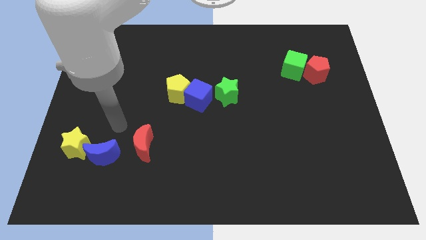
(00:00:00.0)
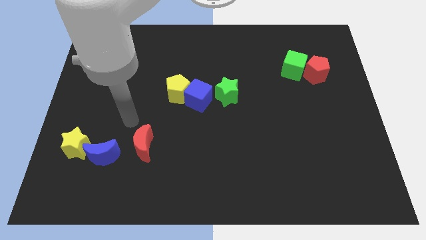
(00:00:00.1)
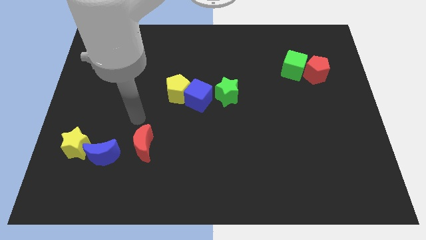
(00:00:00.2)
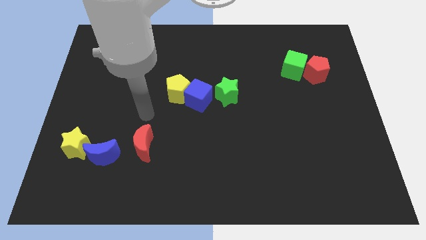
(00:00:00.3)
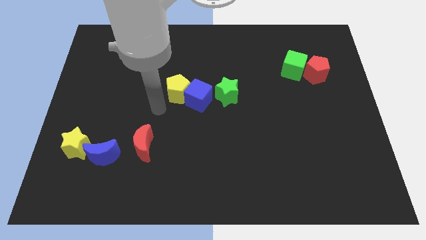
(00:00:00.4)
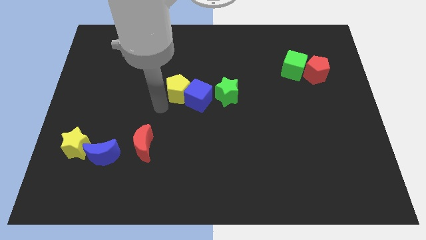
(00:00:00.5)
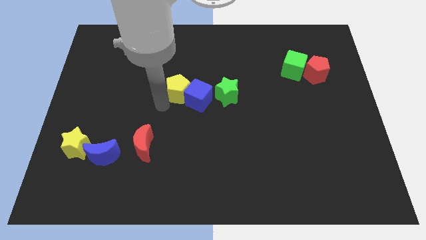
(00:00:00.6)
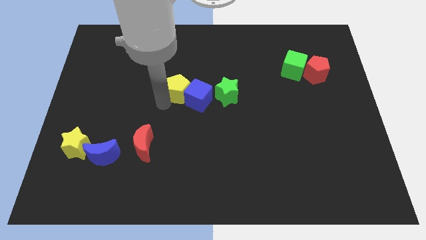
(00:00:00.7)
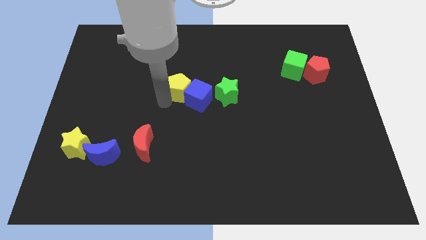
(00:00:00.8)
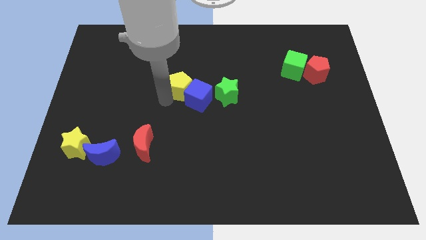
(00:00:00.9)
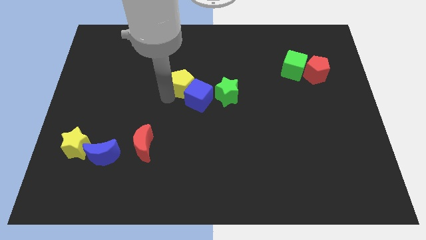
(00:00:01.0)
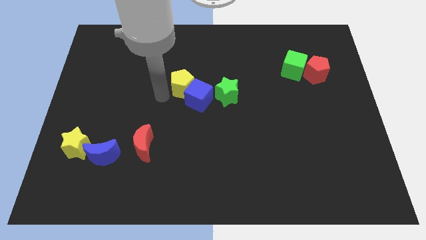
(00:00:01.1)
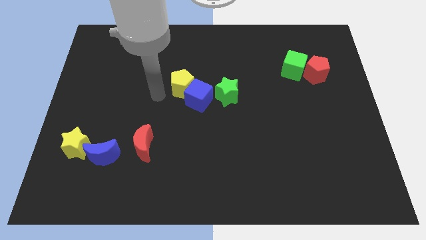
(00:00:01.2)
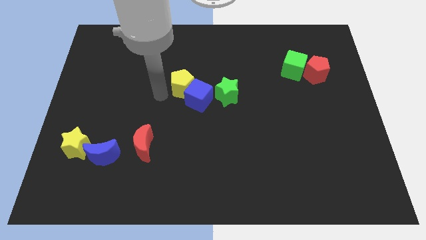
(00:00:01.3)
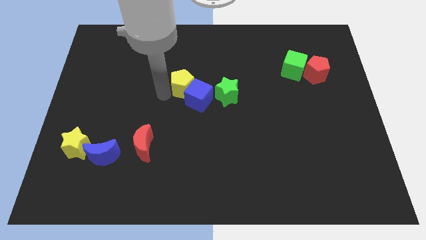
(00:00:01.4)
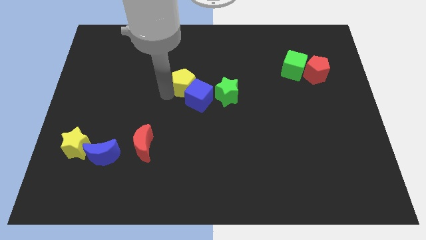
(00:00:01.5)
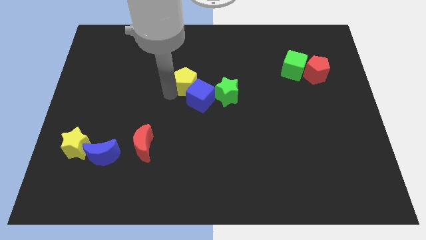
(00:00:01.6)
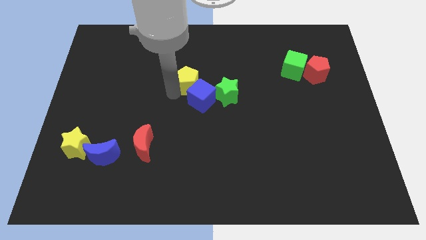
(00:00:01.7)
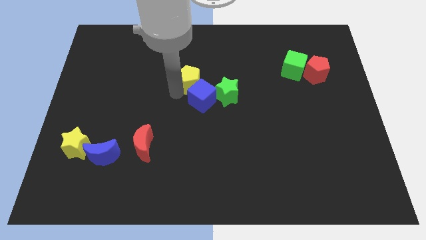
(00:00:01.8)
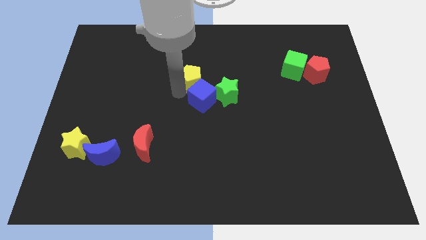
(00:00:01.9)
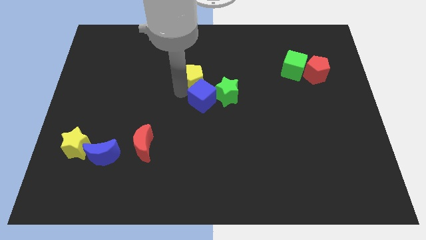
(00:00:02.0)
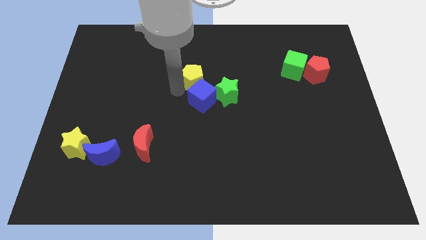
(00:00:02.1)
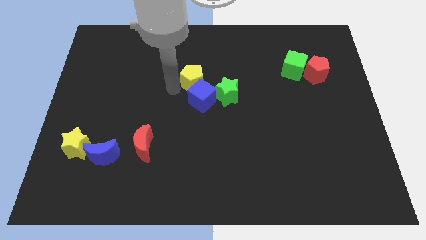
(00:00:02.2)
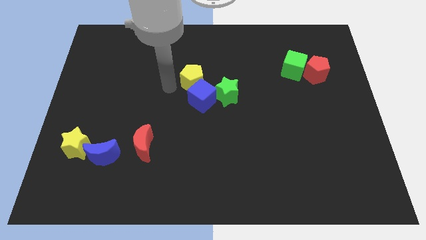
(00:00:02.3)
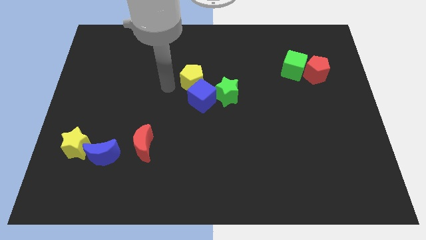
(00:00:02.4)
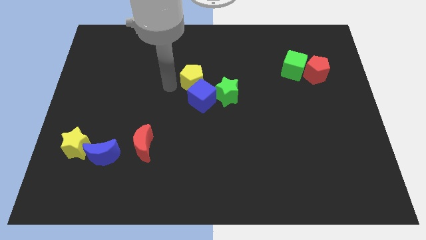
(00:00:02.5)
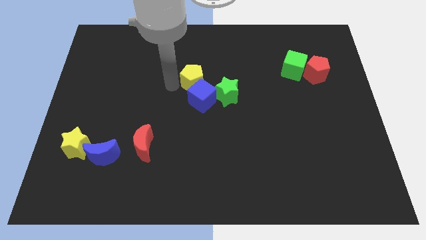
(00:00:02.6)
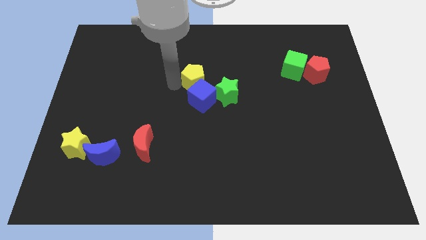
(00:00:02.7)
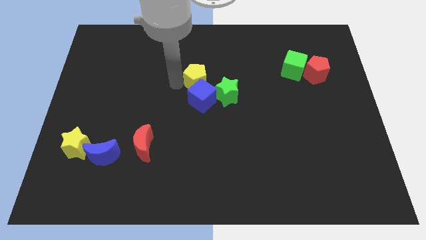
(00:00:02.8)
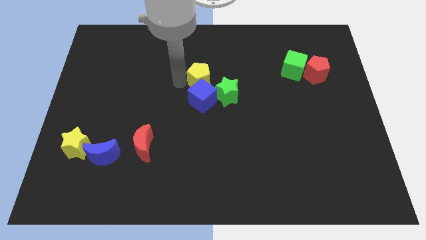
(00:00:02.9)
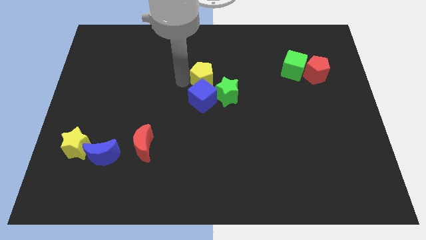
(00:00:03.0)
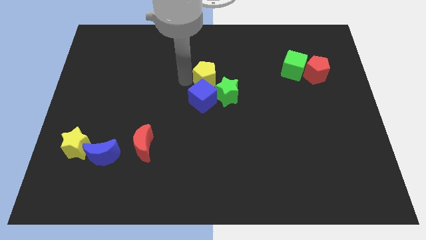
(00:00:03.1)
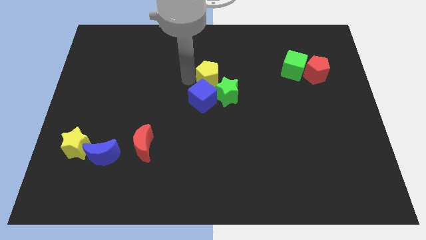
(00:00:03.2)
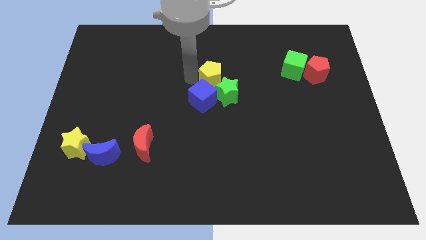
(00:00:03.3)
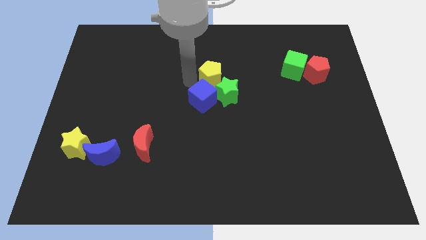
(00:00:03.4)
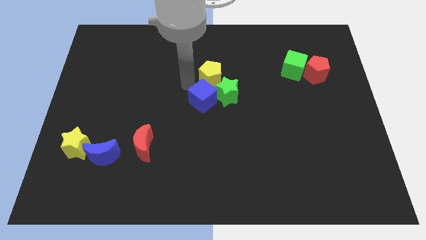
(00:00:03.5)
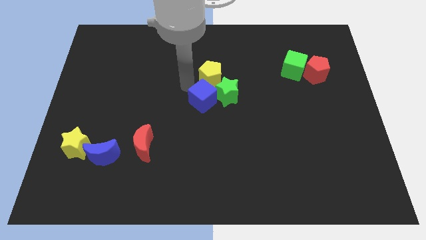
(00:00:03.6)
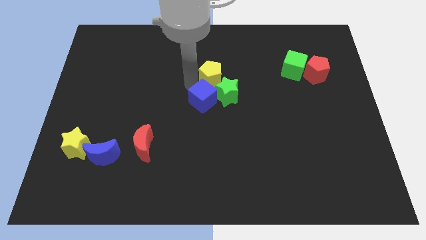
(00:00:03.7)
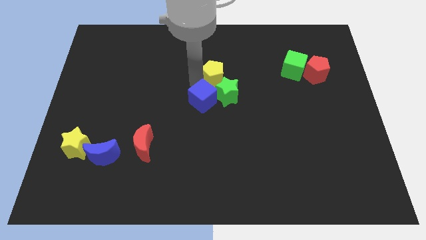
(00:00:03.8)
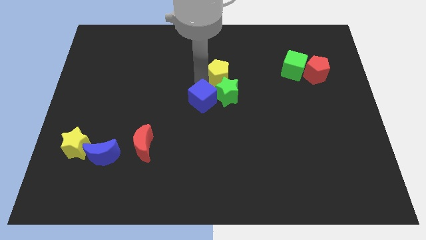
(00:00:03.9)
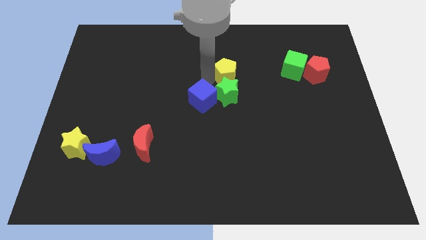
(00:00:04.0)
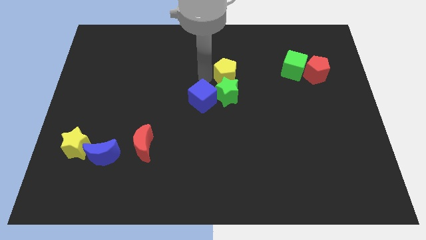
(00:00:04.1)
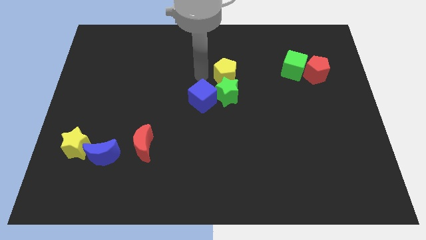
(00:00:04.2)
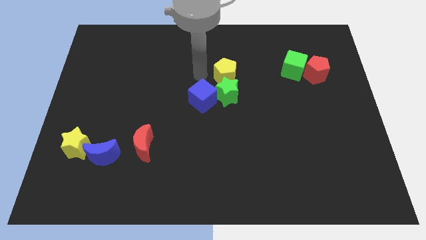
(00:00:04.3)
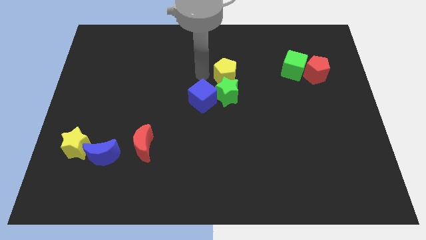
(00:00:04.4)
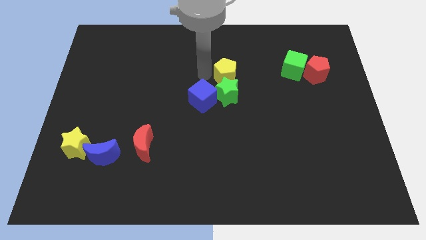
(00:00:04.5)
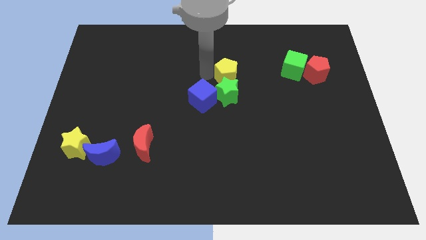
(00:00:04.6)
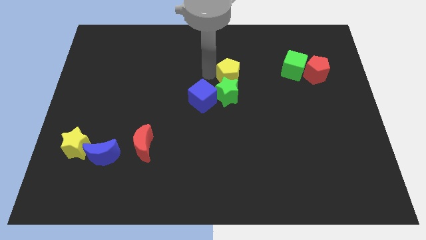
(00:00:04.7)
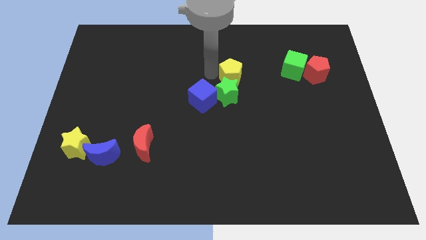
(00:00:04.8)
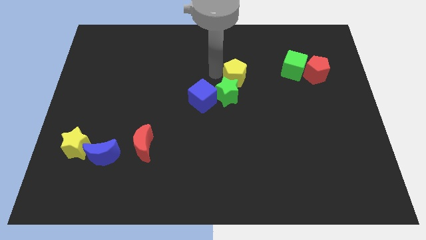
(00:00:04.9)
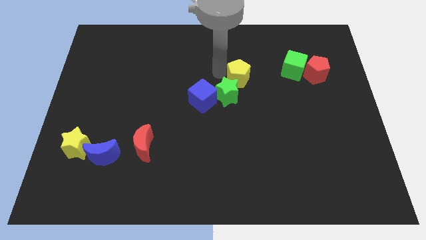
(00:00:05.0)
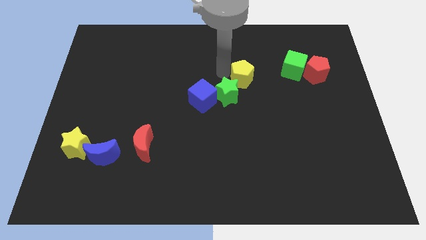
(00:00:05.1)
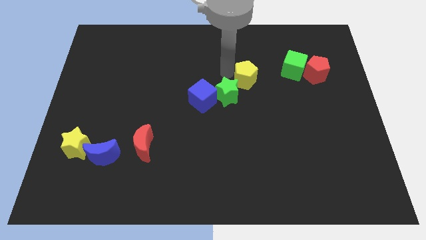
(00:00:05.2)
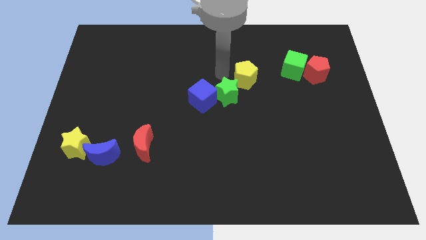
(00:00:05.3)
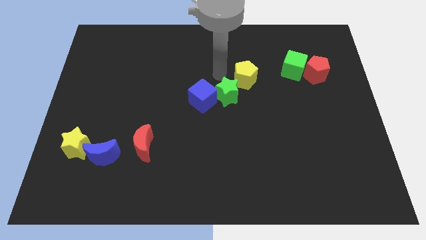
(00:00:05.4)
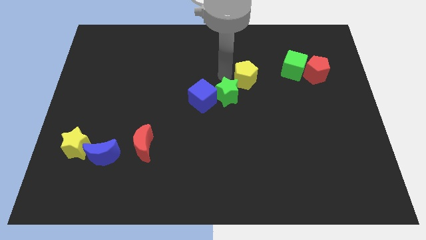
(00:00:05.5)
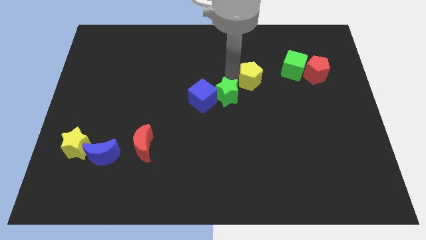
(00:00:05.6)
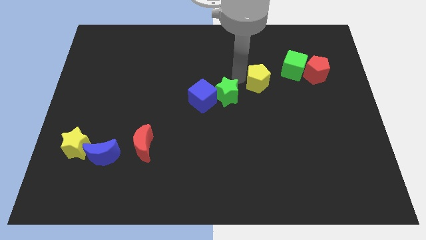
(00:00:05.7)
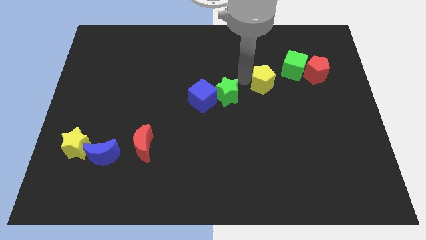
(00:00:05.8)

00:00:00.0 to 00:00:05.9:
move the yellow pentagon to the right

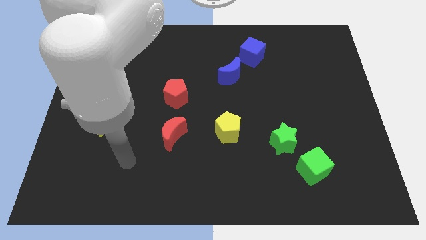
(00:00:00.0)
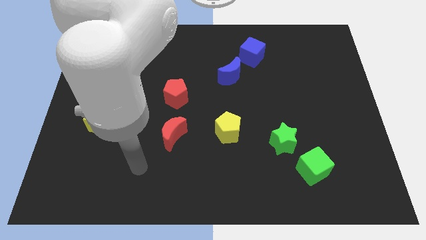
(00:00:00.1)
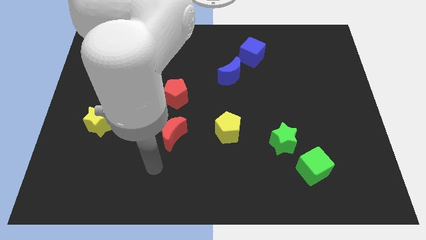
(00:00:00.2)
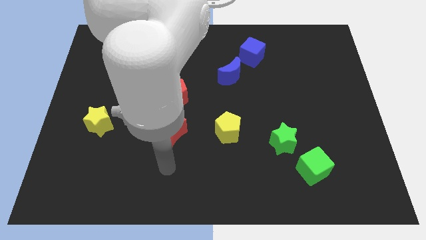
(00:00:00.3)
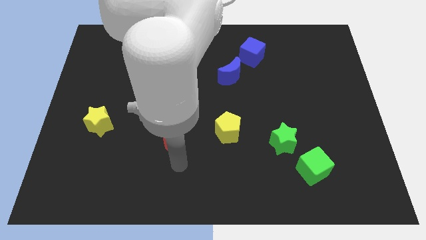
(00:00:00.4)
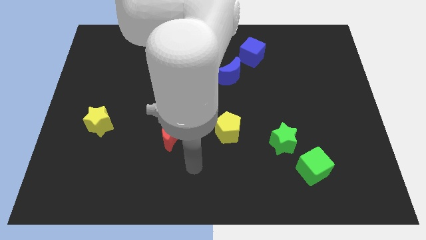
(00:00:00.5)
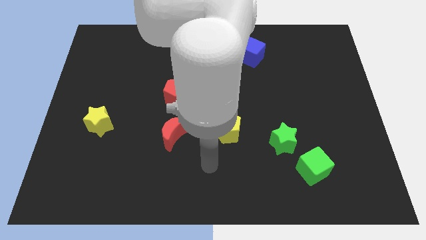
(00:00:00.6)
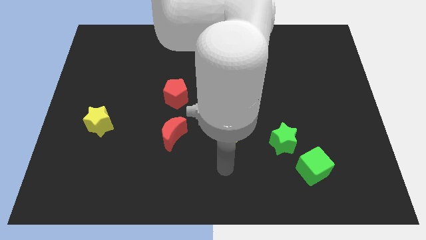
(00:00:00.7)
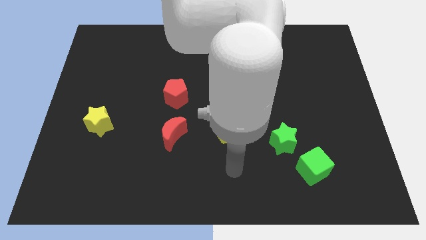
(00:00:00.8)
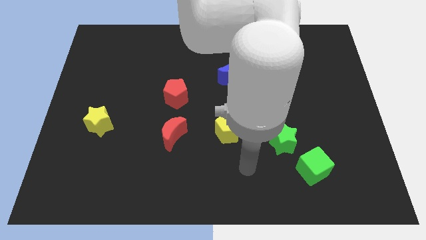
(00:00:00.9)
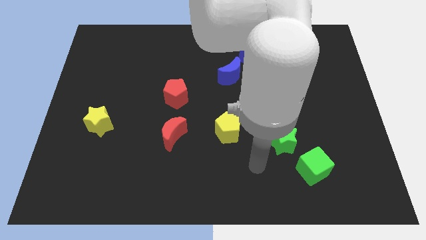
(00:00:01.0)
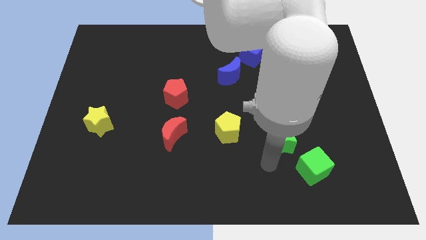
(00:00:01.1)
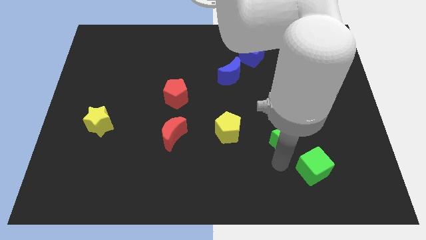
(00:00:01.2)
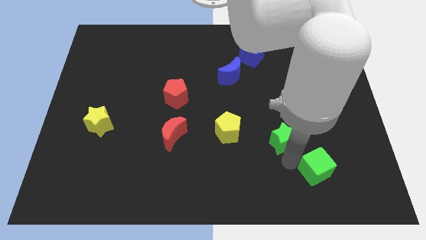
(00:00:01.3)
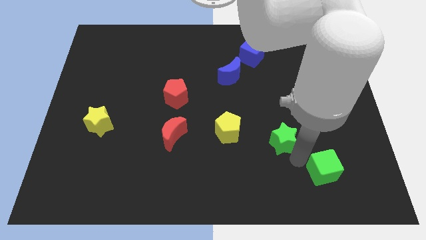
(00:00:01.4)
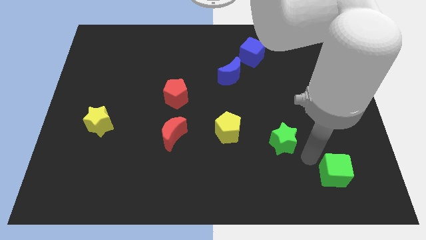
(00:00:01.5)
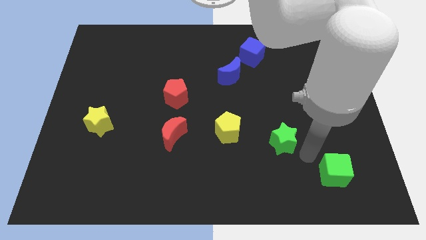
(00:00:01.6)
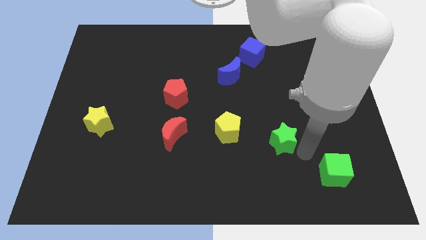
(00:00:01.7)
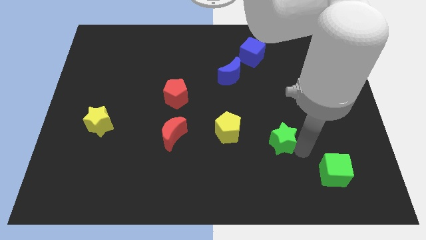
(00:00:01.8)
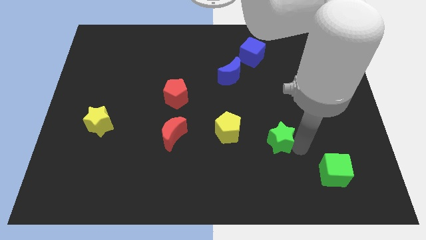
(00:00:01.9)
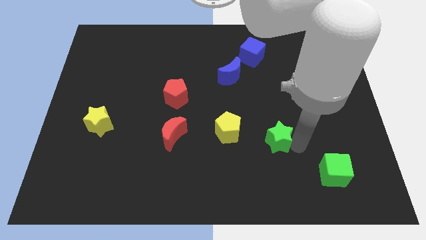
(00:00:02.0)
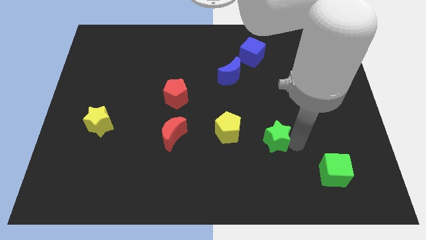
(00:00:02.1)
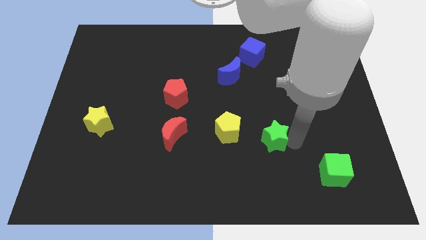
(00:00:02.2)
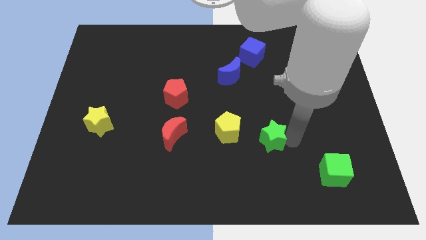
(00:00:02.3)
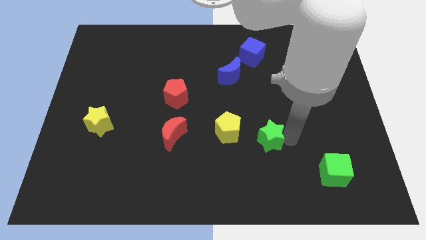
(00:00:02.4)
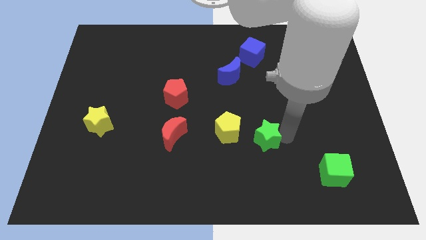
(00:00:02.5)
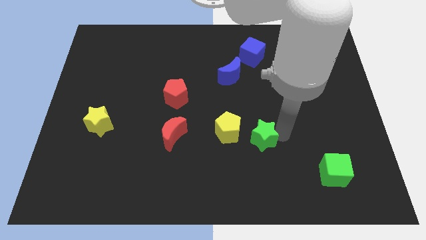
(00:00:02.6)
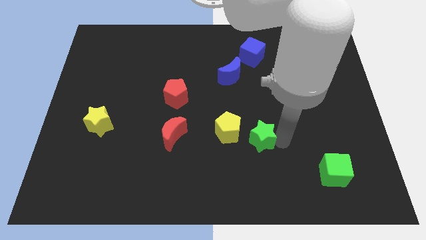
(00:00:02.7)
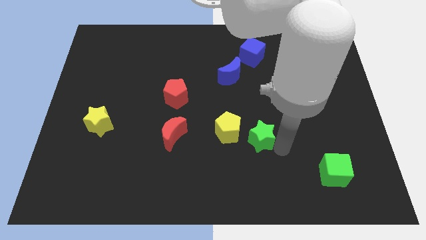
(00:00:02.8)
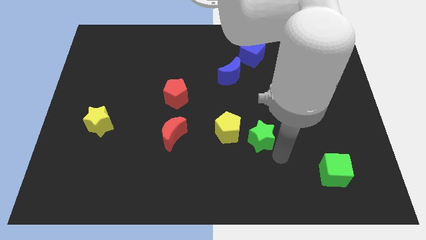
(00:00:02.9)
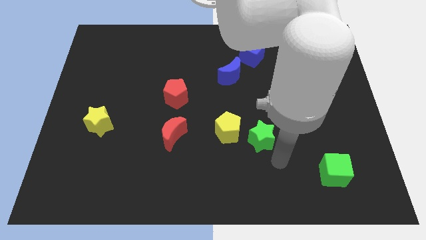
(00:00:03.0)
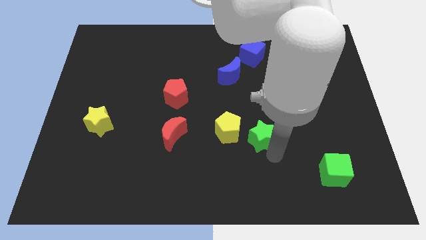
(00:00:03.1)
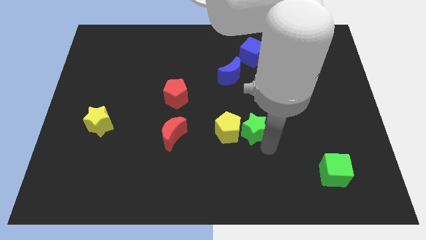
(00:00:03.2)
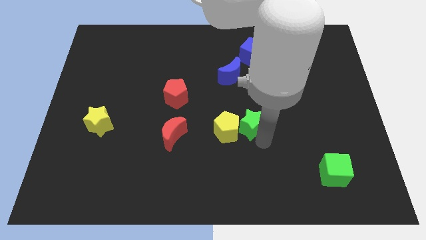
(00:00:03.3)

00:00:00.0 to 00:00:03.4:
move the green star a little bit upwards and to the left diagonally
